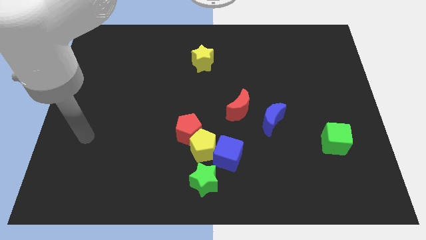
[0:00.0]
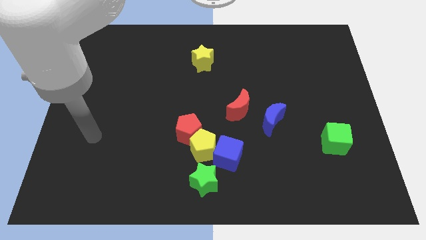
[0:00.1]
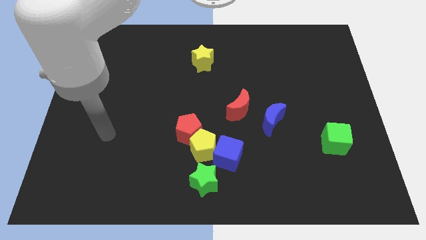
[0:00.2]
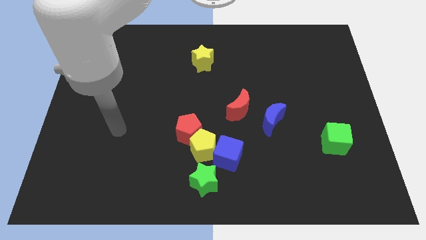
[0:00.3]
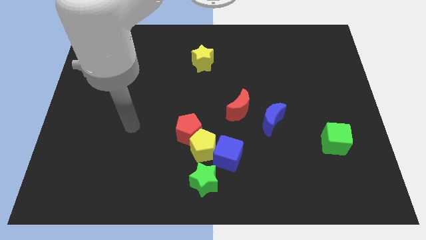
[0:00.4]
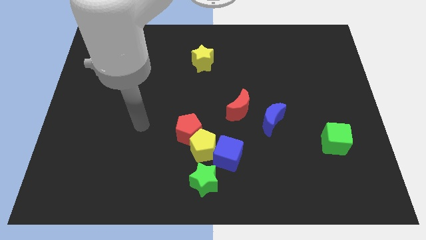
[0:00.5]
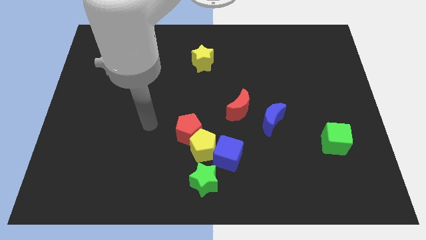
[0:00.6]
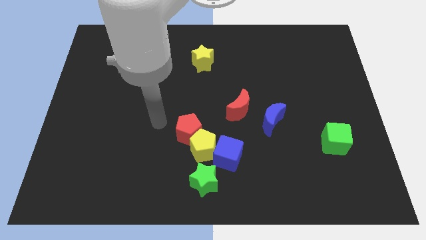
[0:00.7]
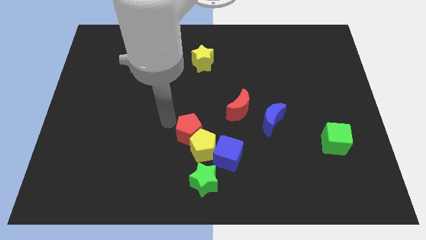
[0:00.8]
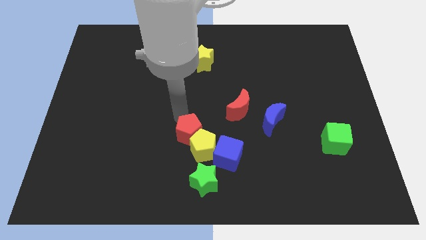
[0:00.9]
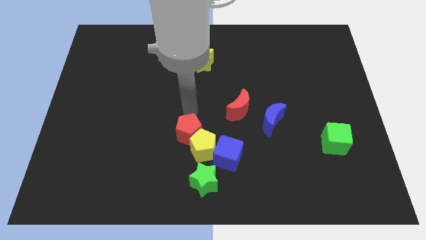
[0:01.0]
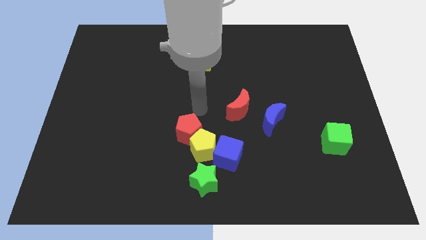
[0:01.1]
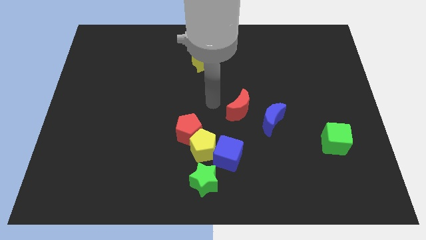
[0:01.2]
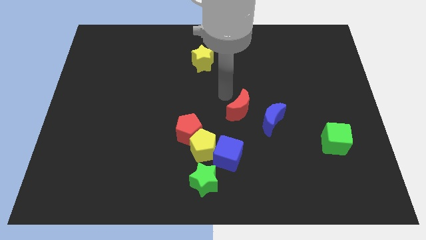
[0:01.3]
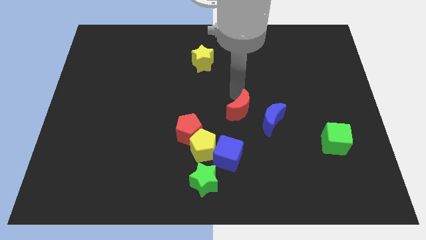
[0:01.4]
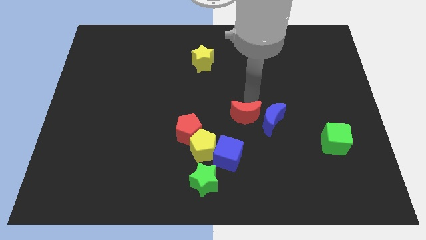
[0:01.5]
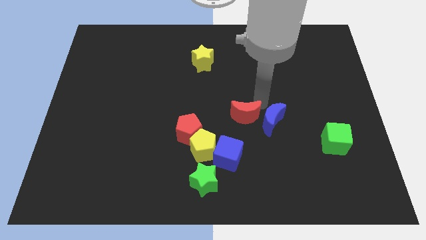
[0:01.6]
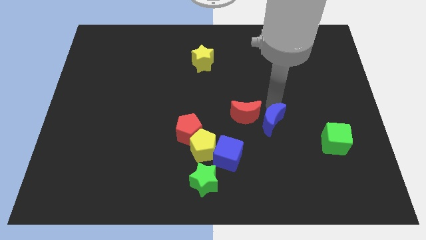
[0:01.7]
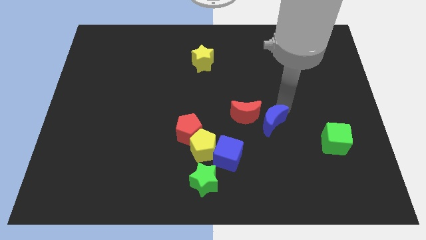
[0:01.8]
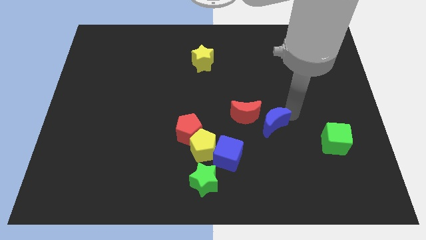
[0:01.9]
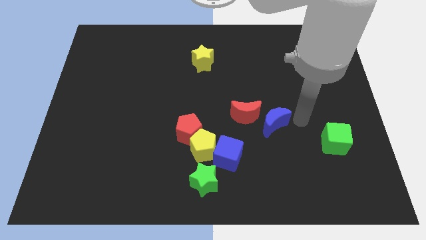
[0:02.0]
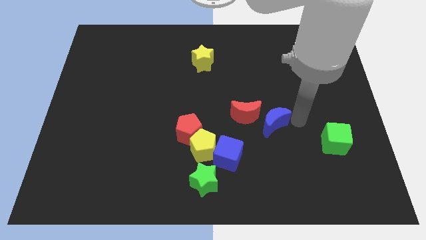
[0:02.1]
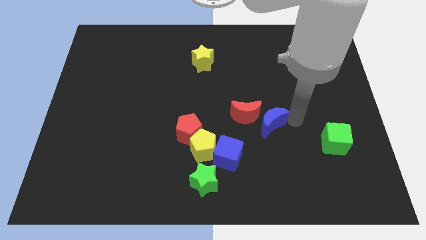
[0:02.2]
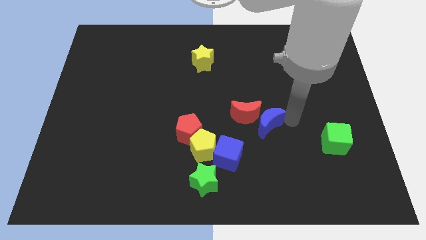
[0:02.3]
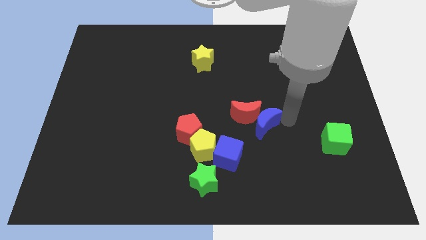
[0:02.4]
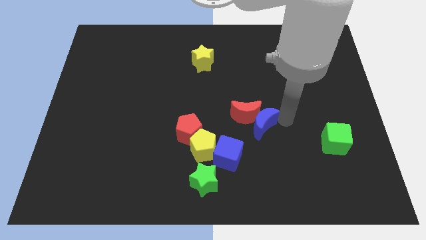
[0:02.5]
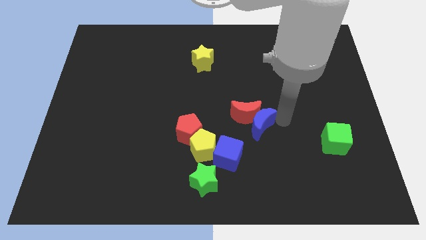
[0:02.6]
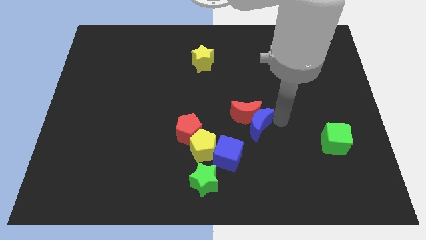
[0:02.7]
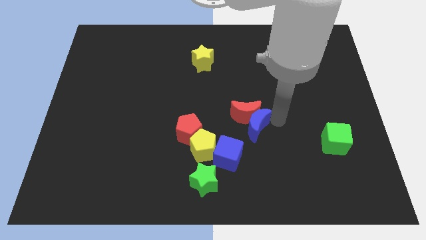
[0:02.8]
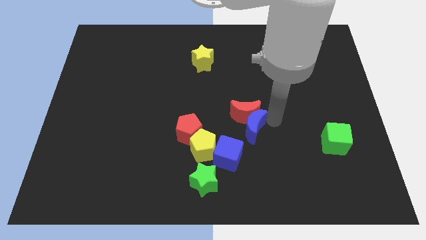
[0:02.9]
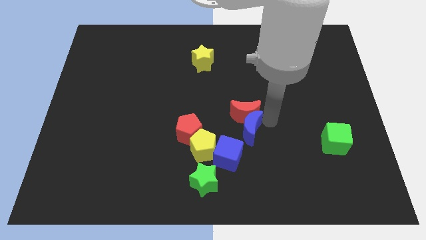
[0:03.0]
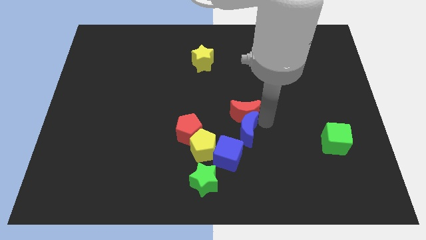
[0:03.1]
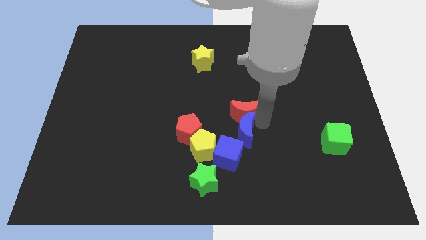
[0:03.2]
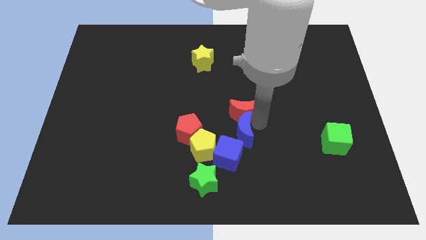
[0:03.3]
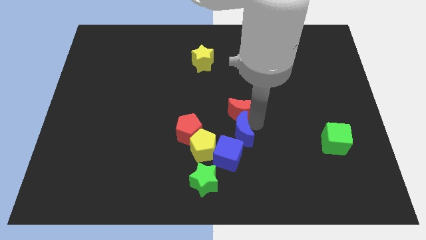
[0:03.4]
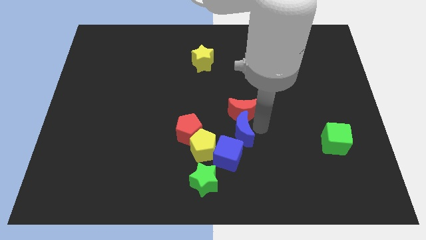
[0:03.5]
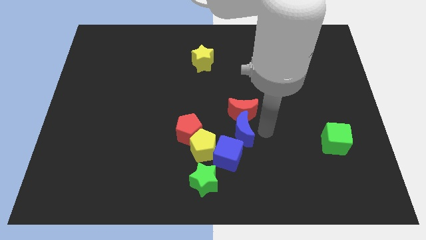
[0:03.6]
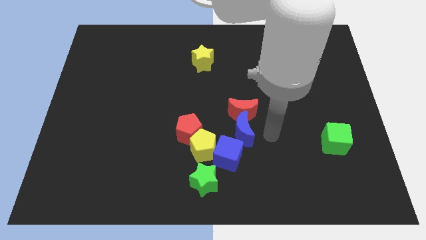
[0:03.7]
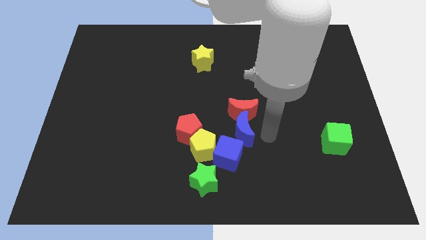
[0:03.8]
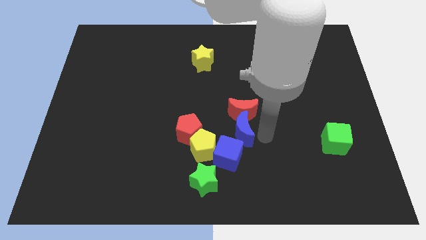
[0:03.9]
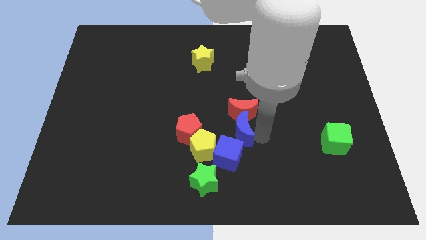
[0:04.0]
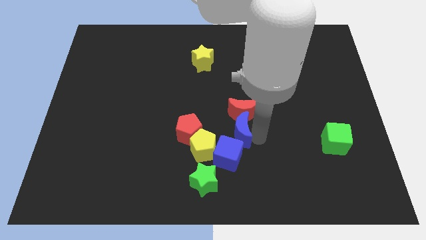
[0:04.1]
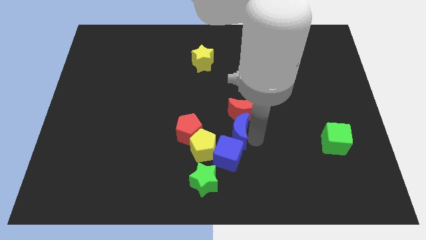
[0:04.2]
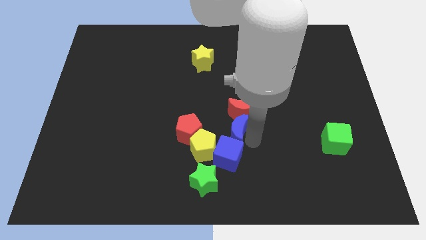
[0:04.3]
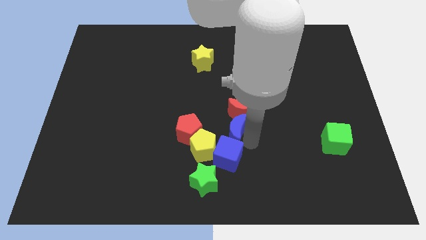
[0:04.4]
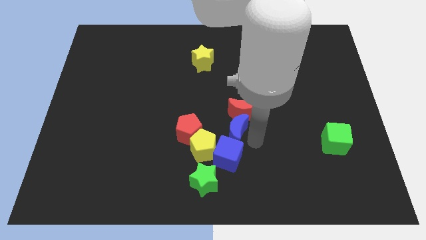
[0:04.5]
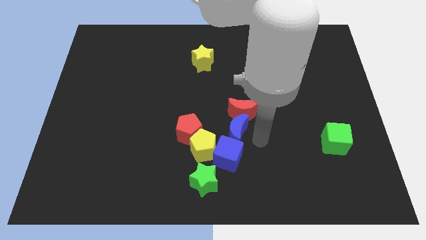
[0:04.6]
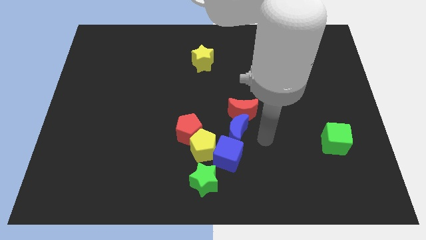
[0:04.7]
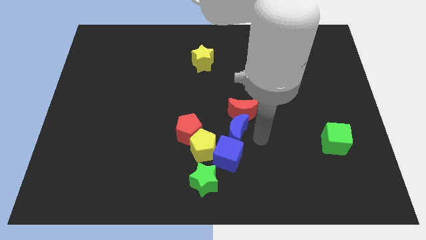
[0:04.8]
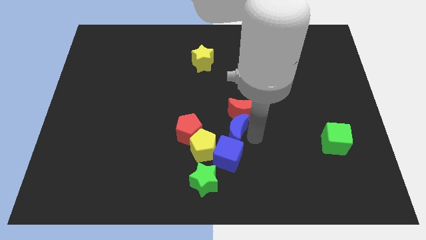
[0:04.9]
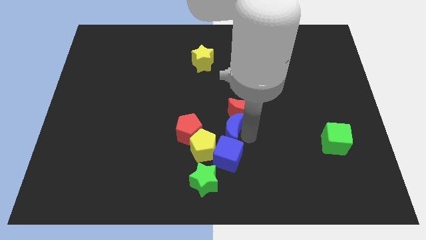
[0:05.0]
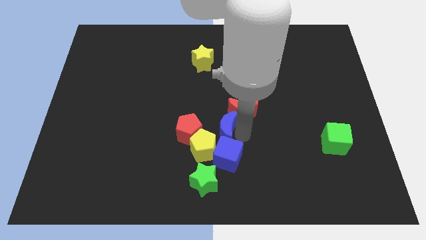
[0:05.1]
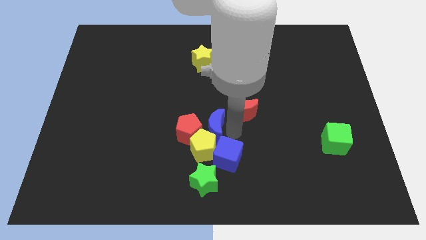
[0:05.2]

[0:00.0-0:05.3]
put the blue moon to the red pentagon

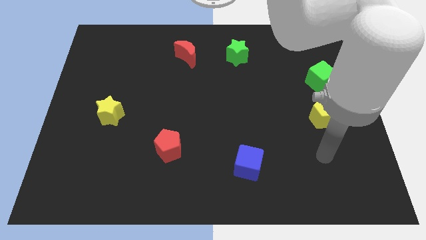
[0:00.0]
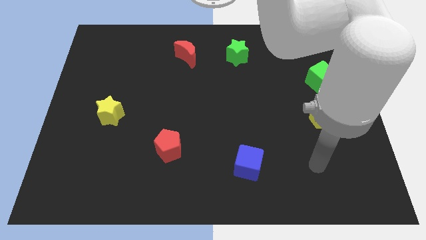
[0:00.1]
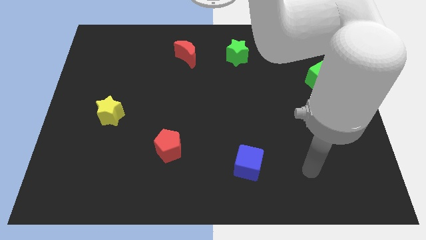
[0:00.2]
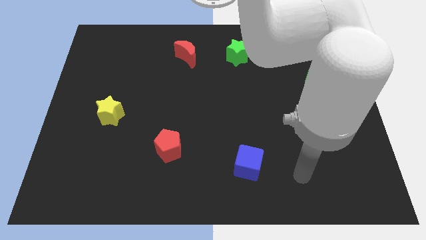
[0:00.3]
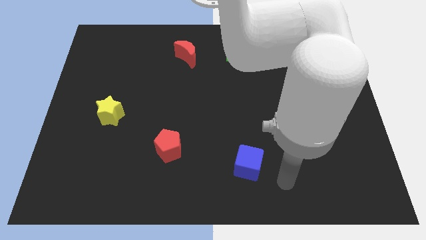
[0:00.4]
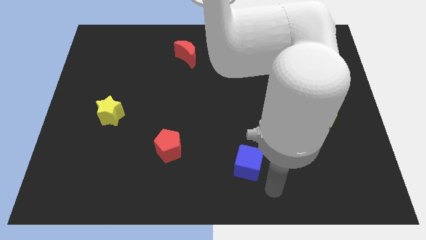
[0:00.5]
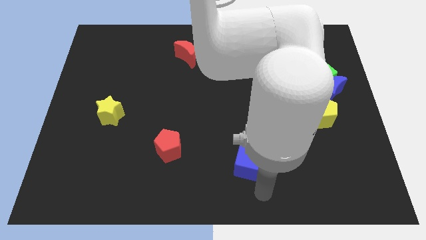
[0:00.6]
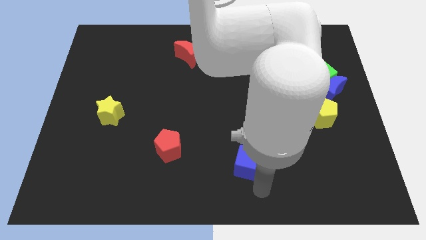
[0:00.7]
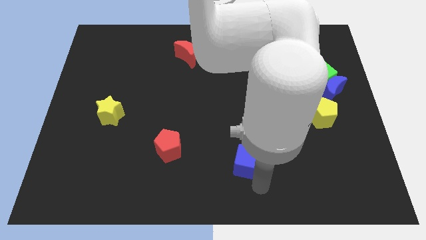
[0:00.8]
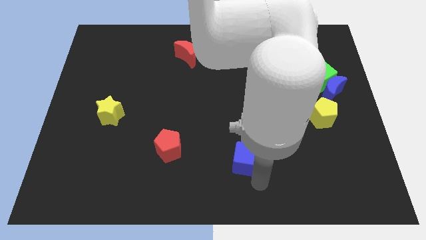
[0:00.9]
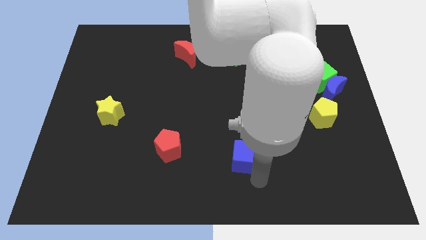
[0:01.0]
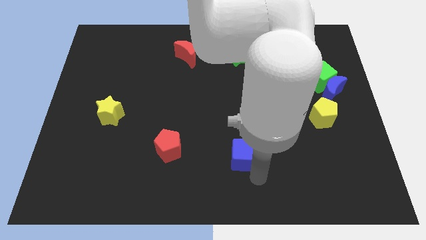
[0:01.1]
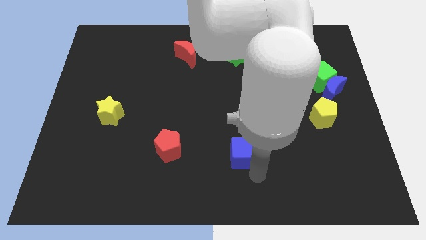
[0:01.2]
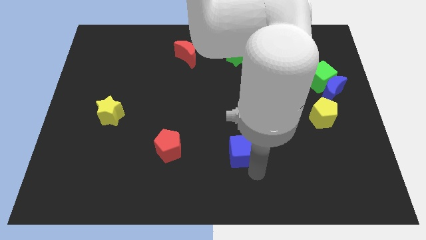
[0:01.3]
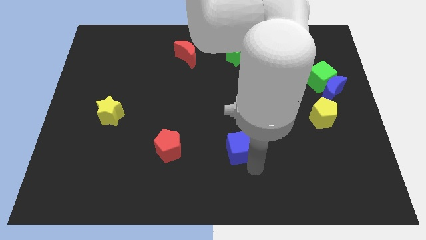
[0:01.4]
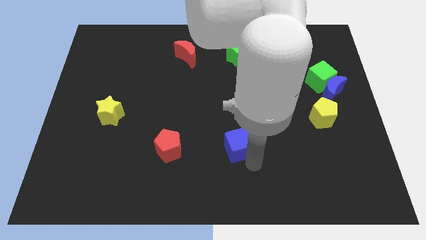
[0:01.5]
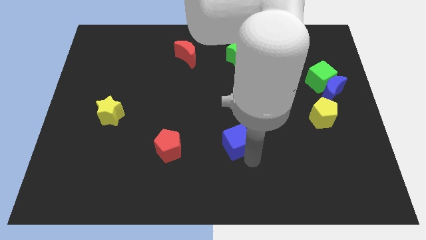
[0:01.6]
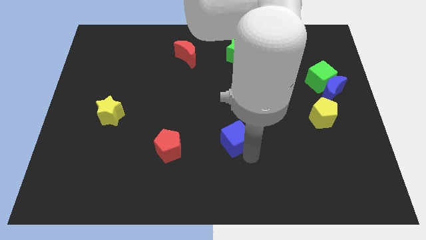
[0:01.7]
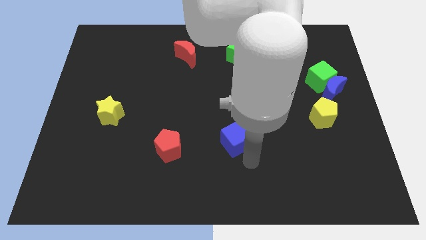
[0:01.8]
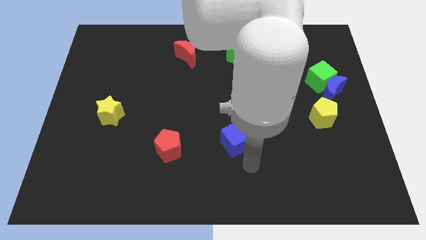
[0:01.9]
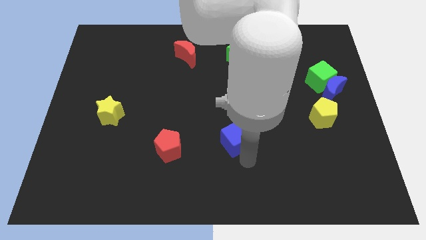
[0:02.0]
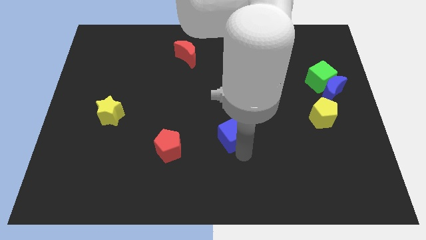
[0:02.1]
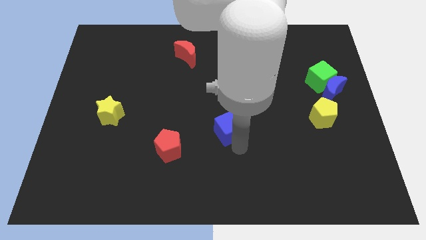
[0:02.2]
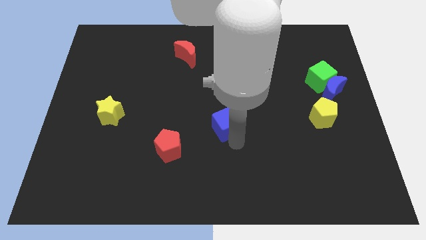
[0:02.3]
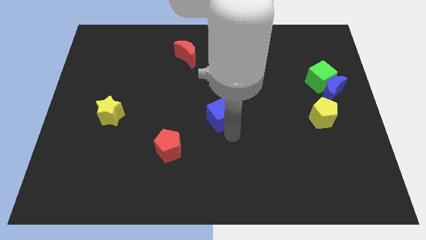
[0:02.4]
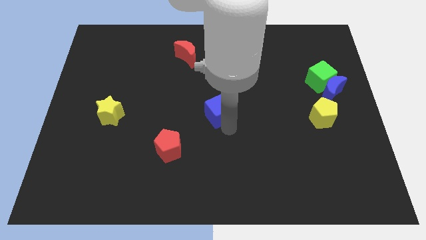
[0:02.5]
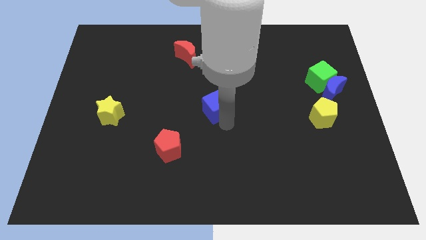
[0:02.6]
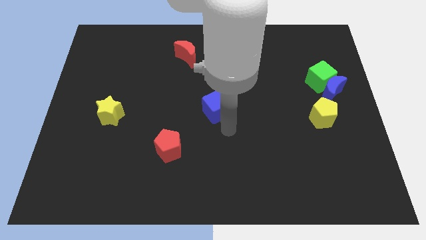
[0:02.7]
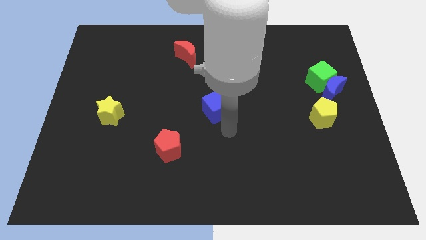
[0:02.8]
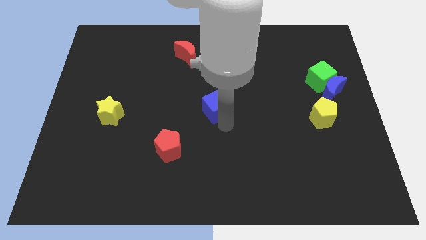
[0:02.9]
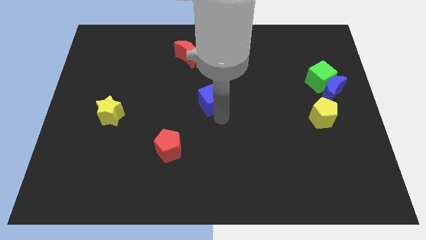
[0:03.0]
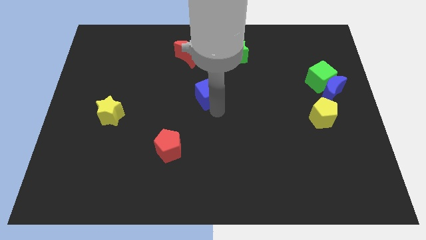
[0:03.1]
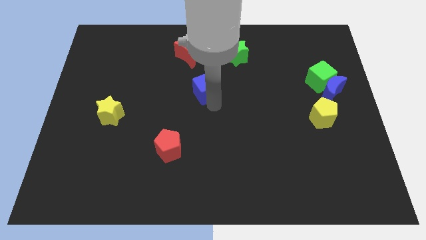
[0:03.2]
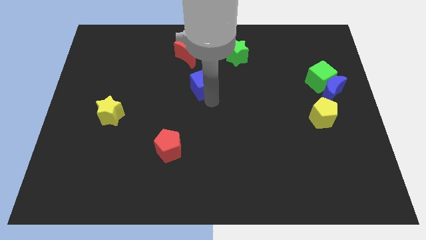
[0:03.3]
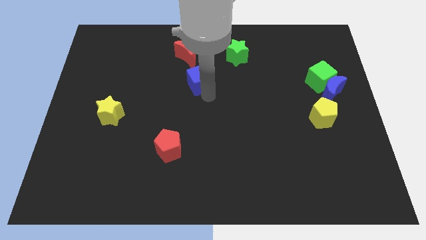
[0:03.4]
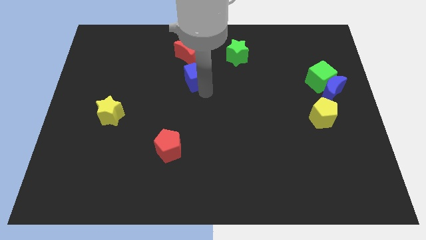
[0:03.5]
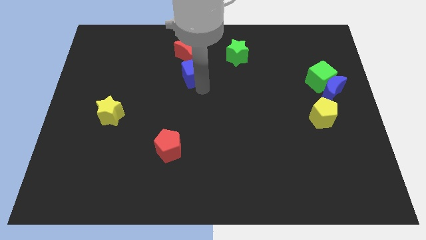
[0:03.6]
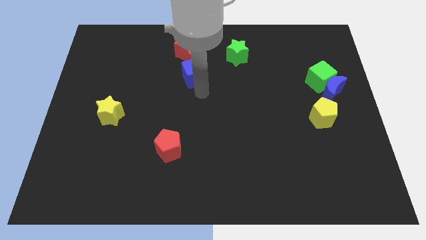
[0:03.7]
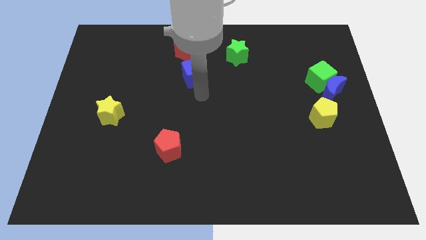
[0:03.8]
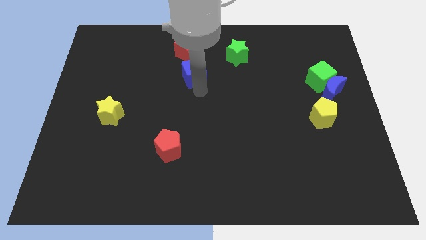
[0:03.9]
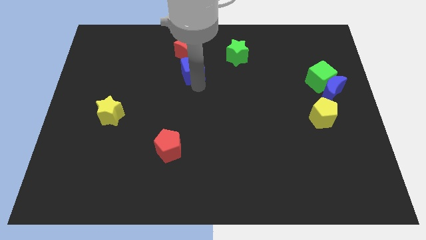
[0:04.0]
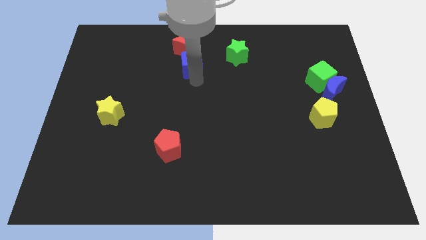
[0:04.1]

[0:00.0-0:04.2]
put the blue cube next to the red moon
